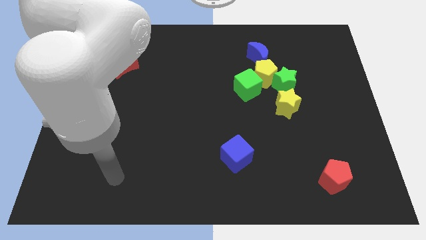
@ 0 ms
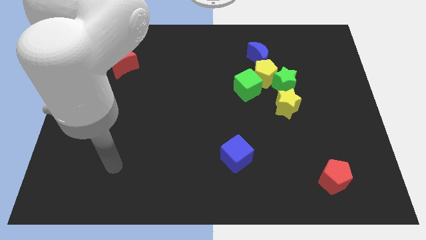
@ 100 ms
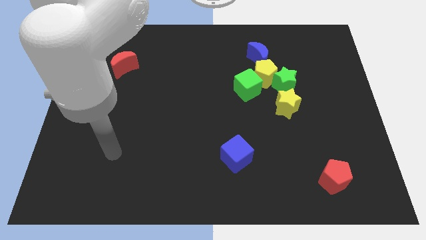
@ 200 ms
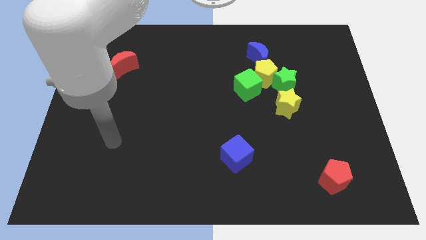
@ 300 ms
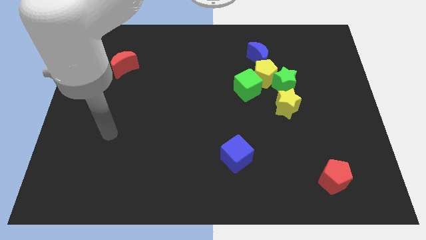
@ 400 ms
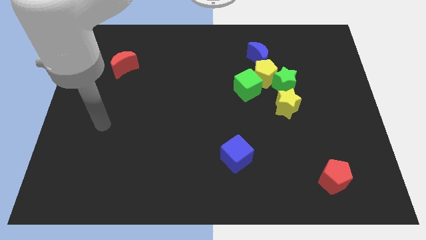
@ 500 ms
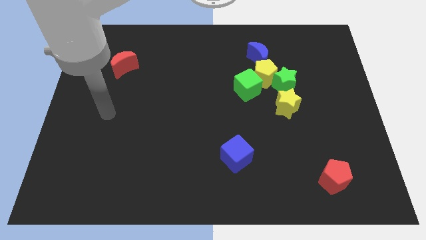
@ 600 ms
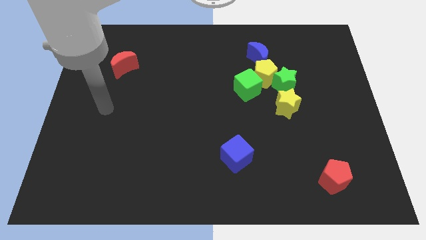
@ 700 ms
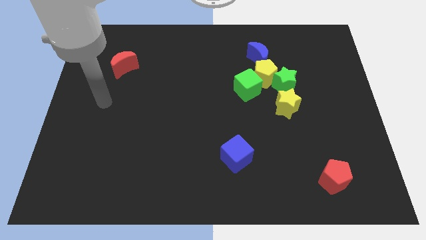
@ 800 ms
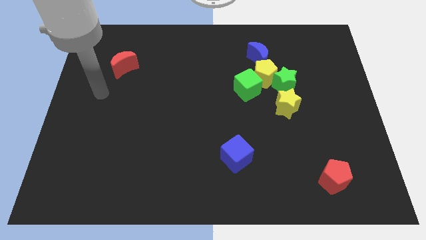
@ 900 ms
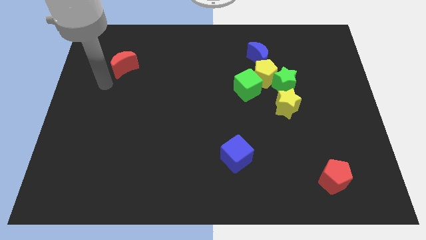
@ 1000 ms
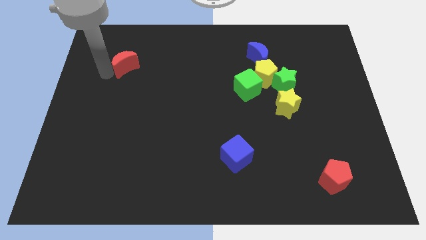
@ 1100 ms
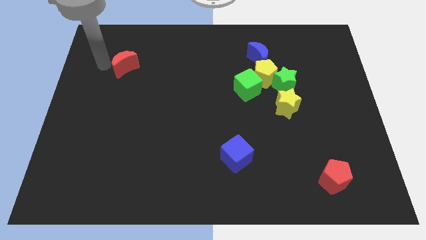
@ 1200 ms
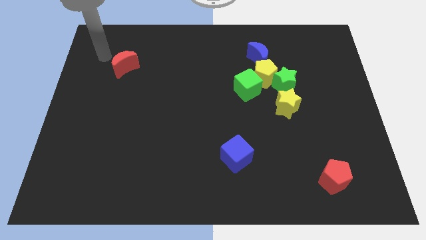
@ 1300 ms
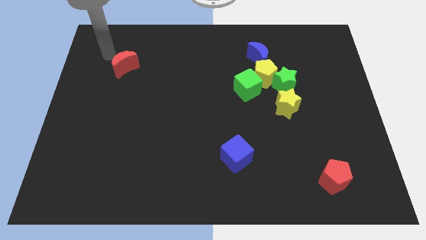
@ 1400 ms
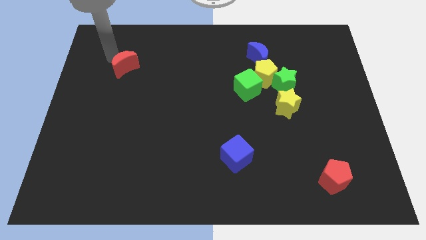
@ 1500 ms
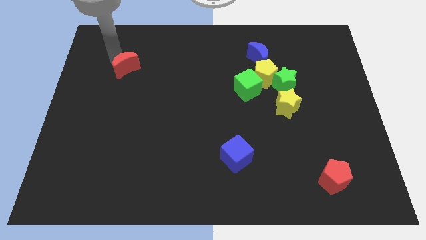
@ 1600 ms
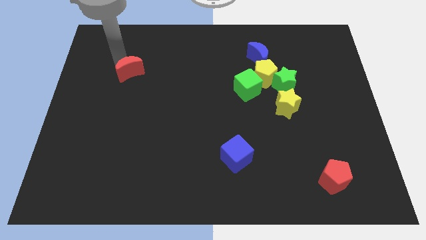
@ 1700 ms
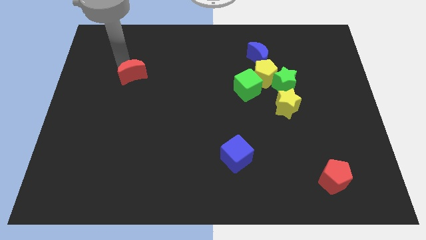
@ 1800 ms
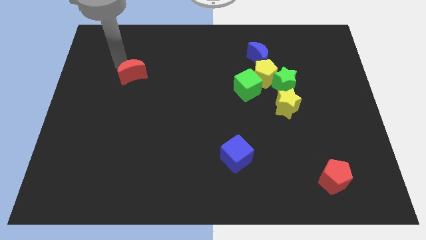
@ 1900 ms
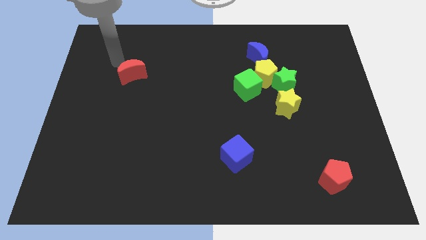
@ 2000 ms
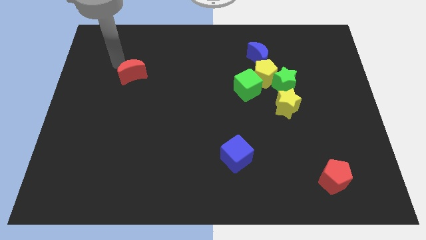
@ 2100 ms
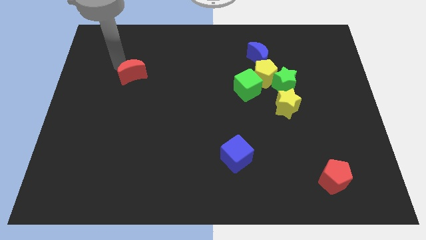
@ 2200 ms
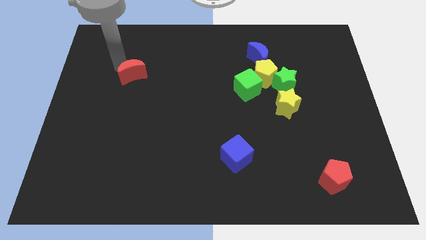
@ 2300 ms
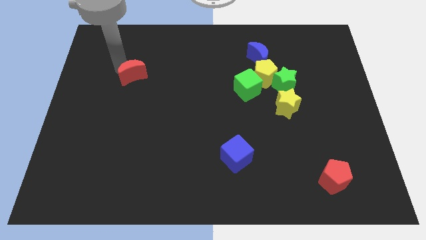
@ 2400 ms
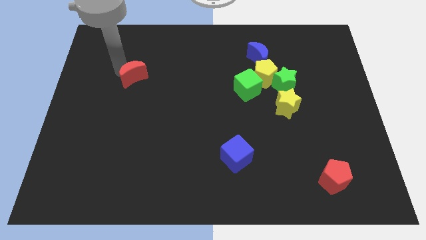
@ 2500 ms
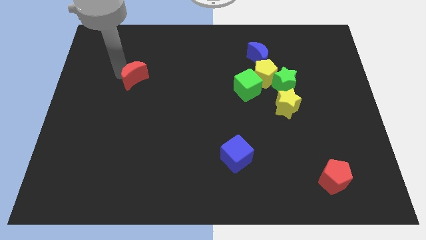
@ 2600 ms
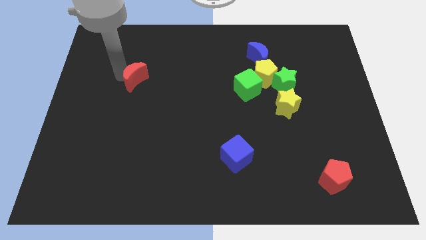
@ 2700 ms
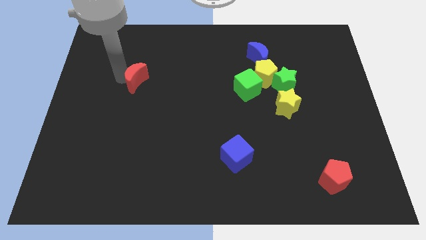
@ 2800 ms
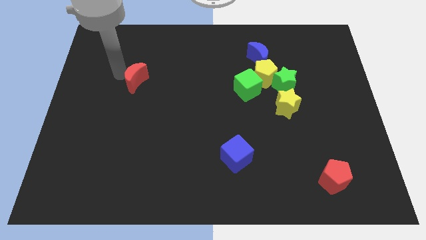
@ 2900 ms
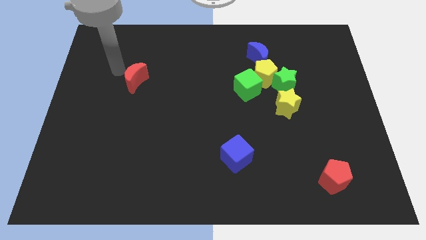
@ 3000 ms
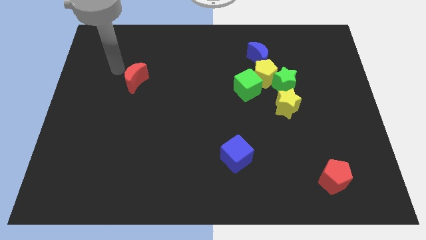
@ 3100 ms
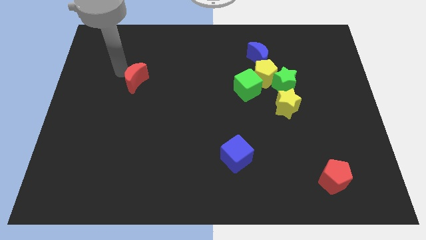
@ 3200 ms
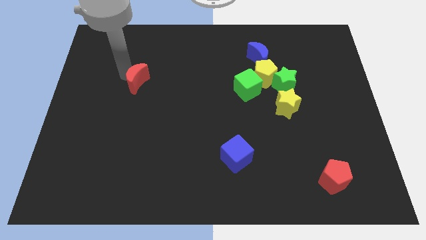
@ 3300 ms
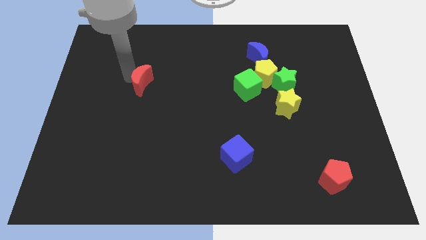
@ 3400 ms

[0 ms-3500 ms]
move the red moon somewhat downwards and right

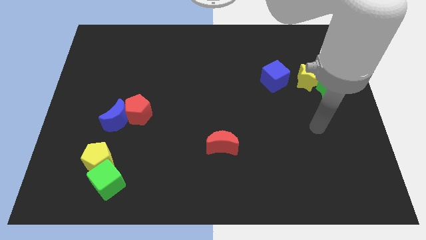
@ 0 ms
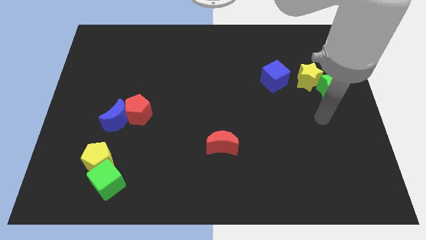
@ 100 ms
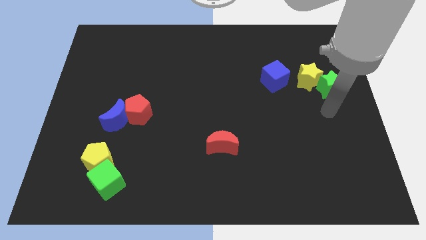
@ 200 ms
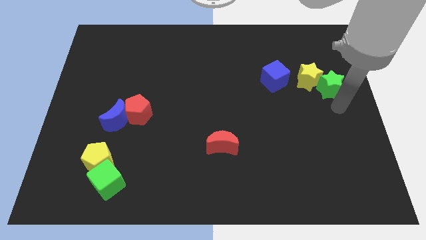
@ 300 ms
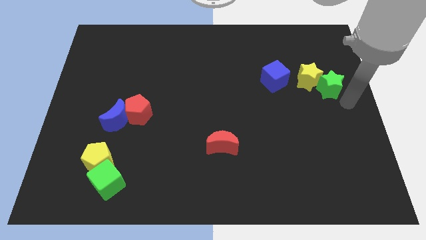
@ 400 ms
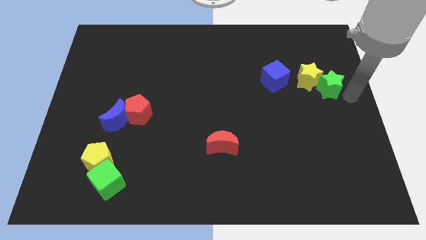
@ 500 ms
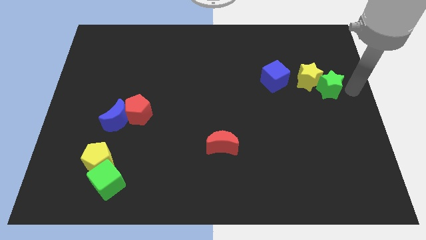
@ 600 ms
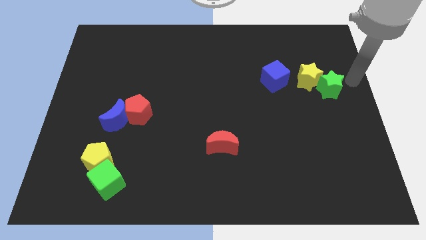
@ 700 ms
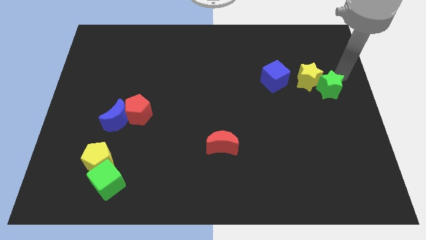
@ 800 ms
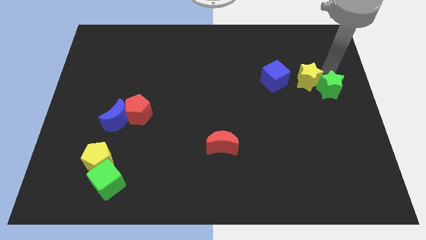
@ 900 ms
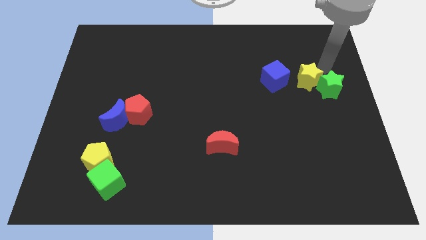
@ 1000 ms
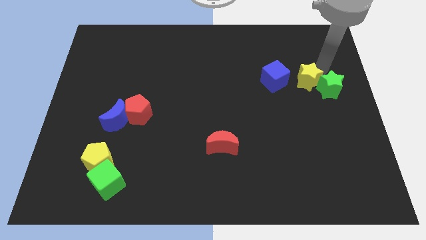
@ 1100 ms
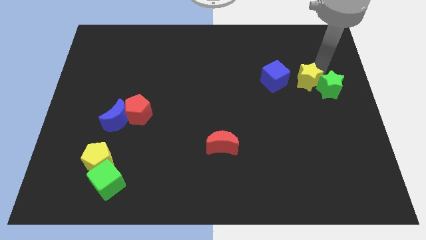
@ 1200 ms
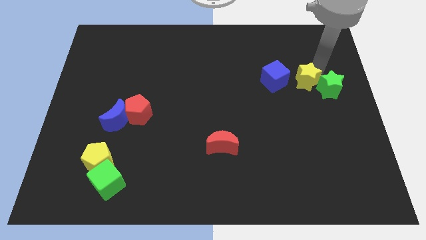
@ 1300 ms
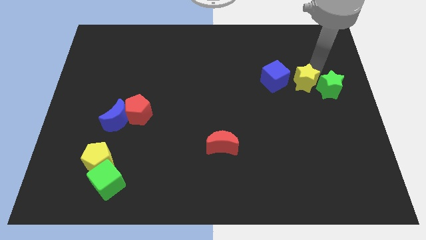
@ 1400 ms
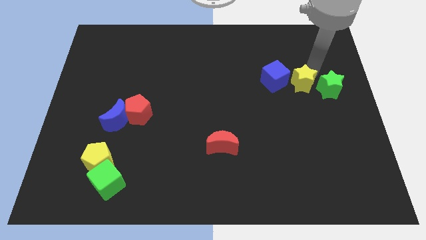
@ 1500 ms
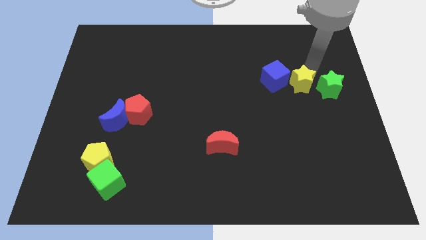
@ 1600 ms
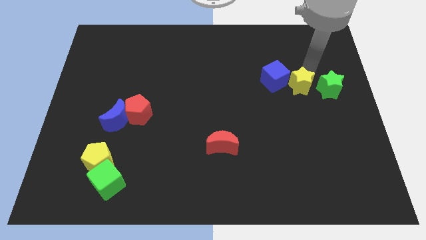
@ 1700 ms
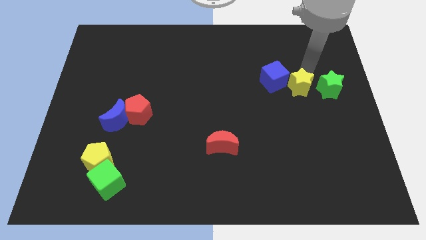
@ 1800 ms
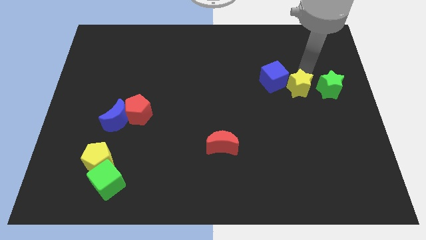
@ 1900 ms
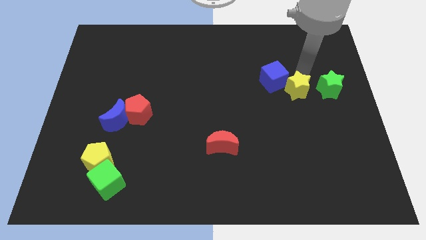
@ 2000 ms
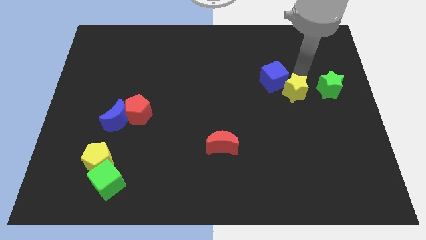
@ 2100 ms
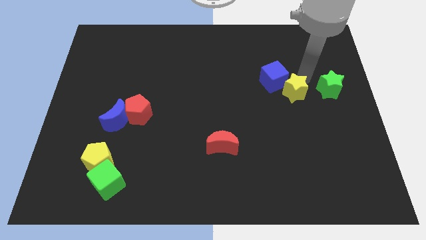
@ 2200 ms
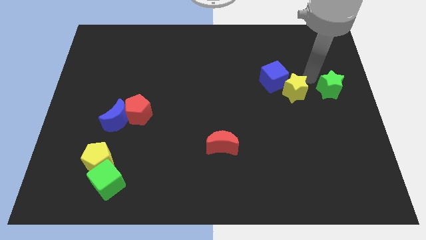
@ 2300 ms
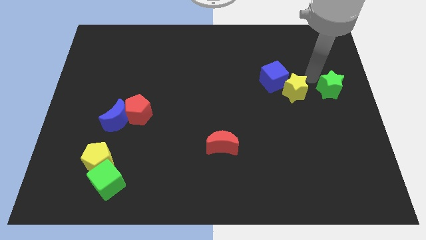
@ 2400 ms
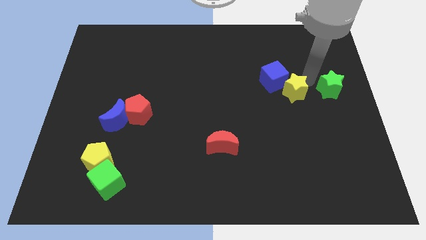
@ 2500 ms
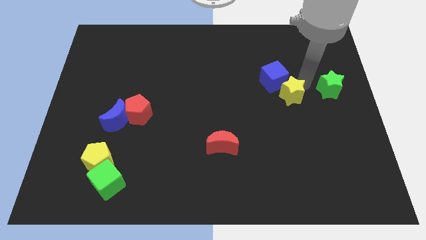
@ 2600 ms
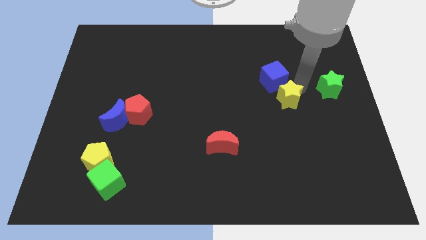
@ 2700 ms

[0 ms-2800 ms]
push the yellow star somewhat diagonally down and left

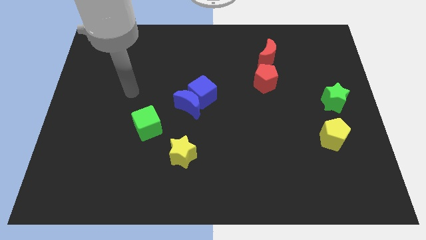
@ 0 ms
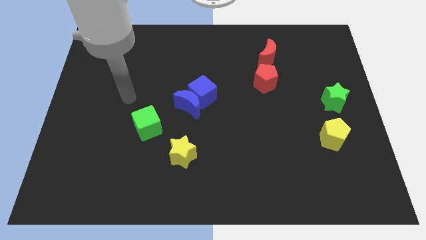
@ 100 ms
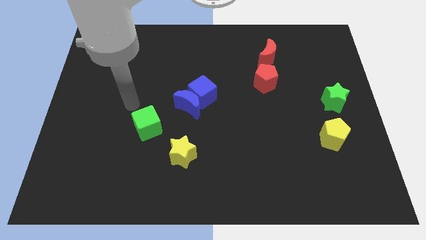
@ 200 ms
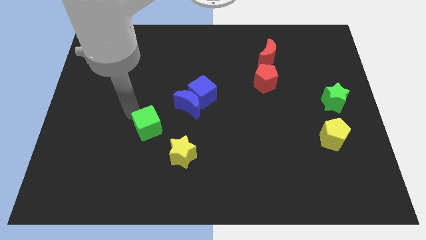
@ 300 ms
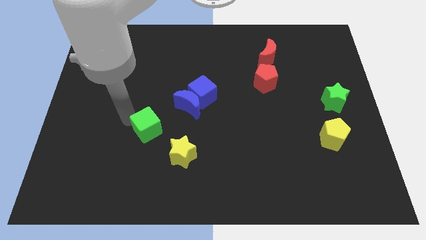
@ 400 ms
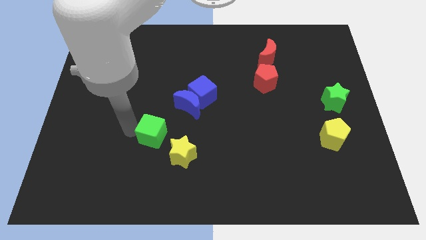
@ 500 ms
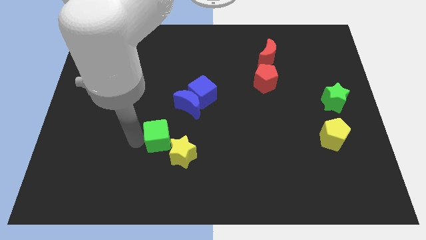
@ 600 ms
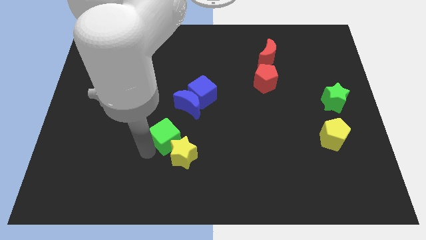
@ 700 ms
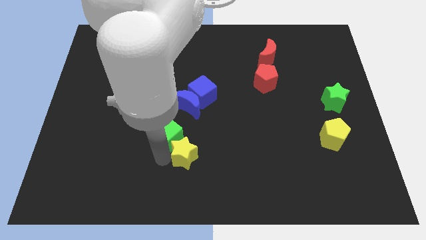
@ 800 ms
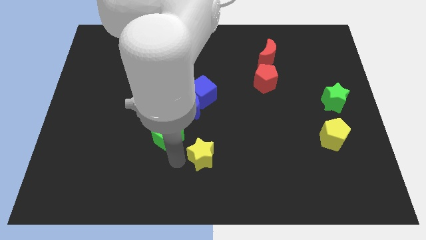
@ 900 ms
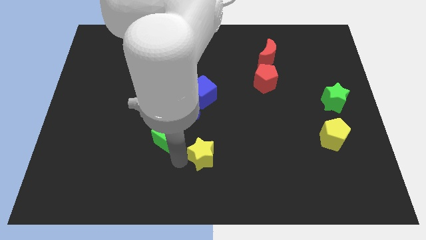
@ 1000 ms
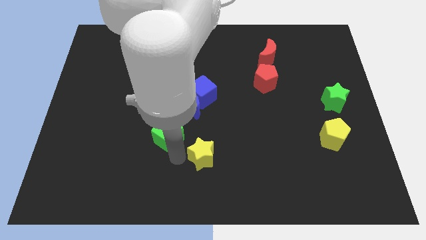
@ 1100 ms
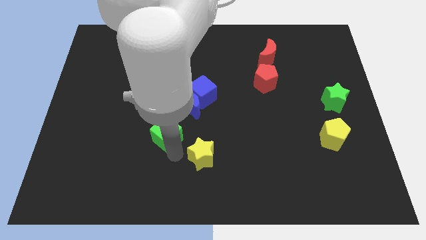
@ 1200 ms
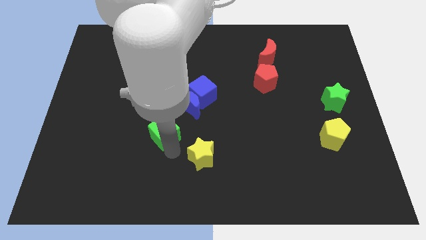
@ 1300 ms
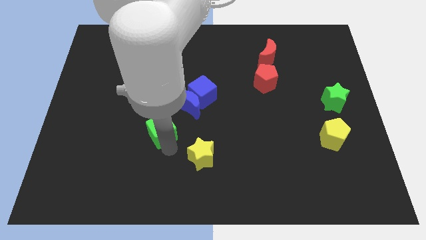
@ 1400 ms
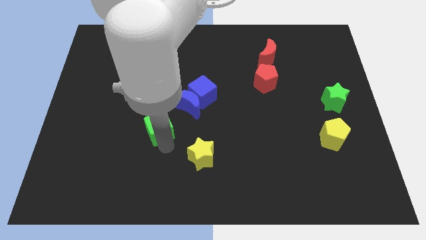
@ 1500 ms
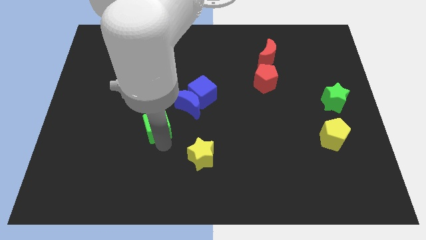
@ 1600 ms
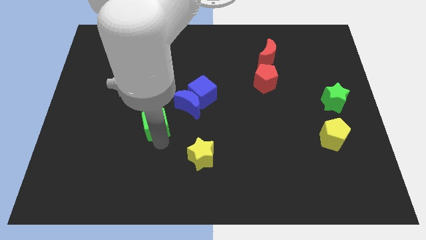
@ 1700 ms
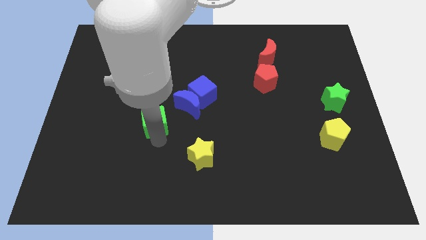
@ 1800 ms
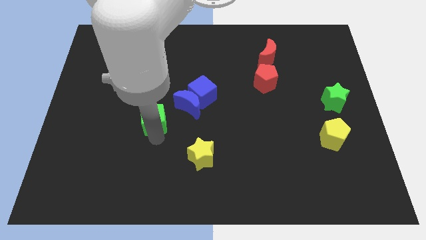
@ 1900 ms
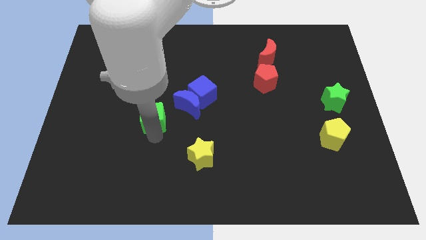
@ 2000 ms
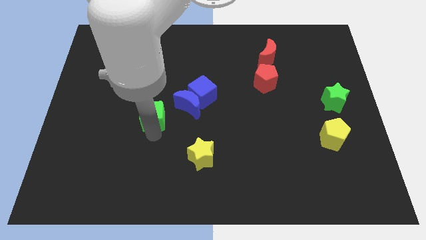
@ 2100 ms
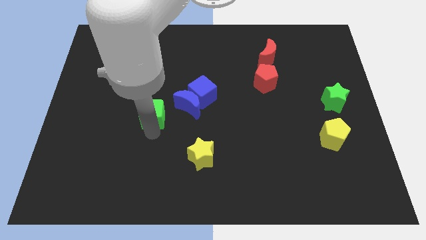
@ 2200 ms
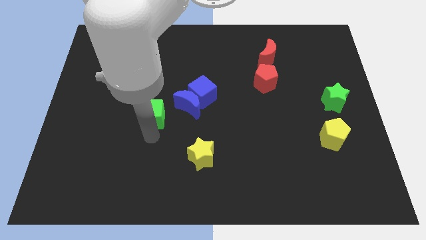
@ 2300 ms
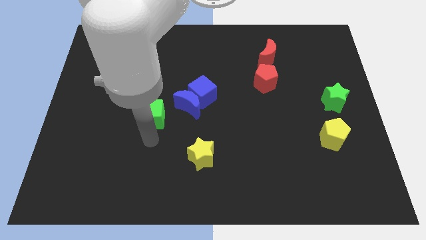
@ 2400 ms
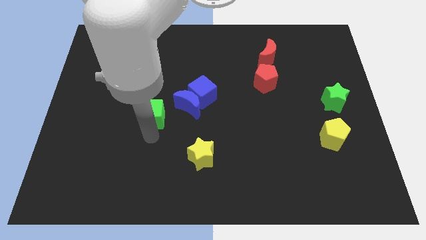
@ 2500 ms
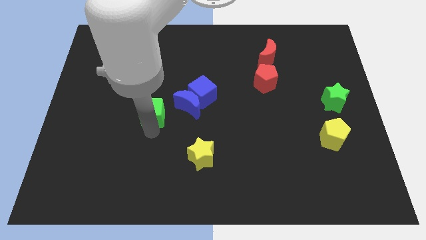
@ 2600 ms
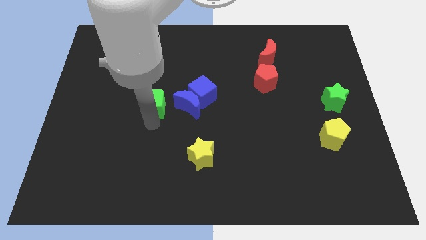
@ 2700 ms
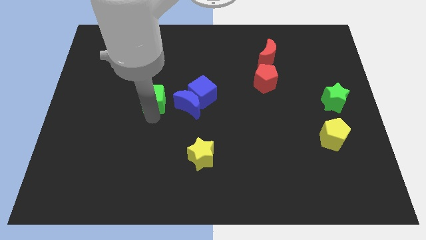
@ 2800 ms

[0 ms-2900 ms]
move the green cube somewhat upwards
